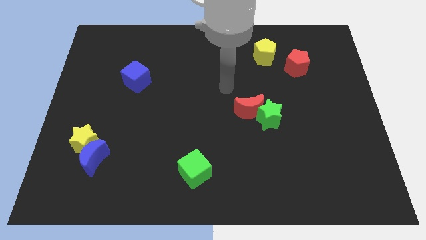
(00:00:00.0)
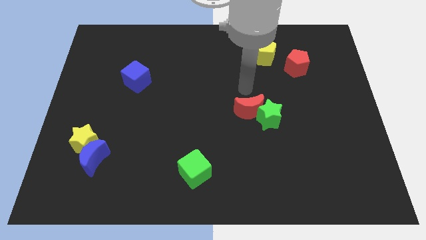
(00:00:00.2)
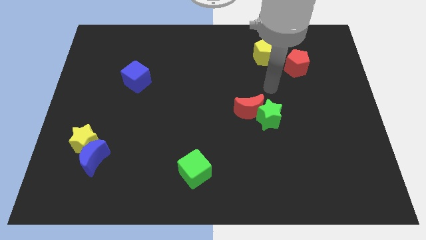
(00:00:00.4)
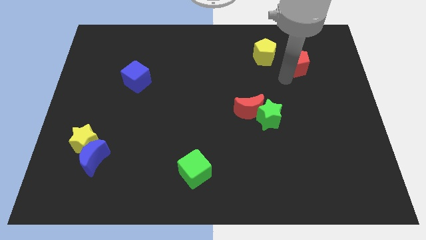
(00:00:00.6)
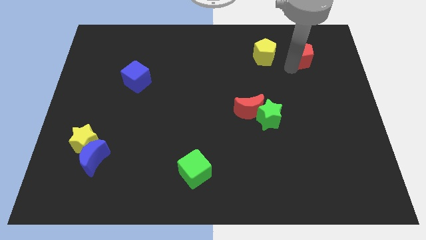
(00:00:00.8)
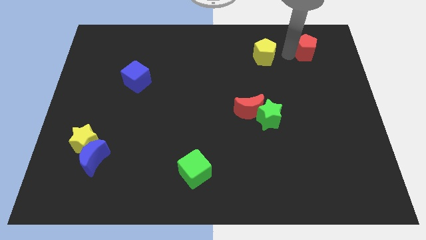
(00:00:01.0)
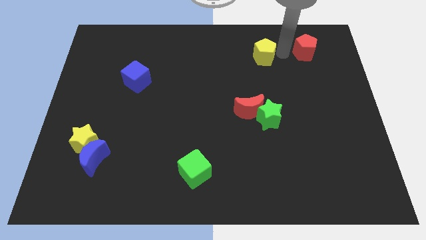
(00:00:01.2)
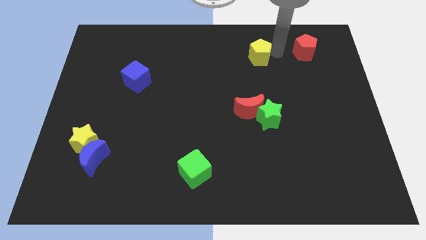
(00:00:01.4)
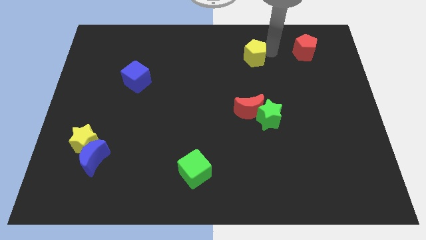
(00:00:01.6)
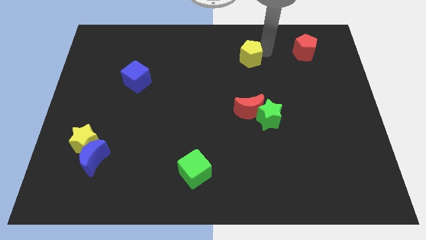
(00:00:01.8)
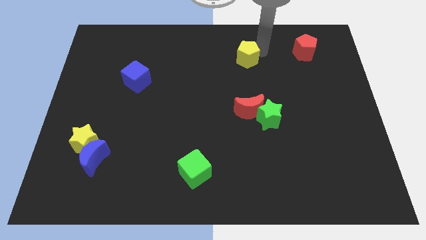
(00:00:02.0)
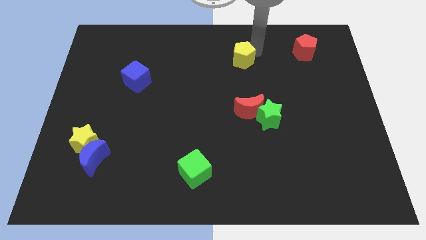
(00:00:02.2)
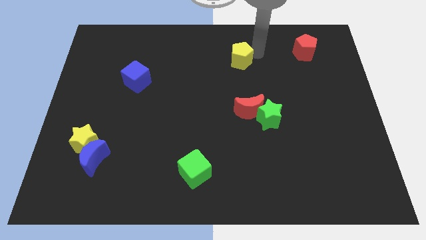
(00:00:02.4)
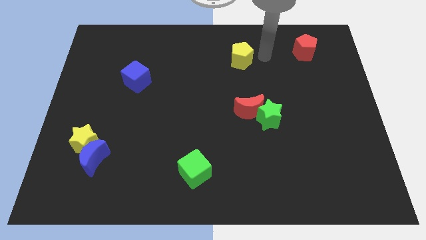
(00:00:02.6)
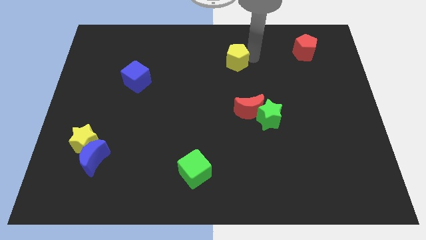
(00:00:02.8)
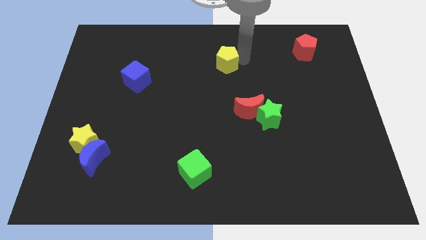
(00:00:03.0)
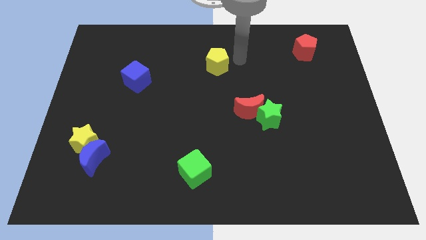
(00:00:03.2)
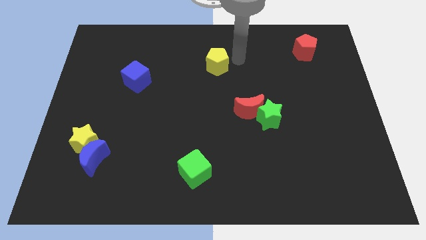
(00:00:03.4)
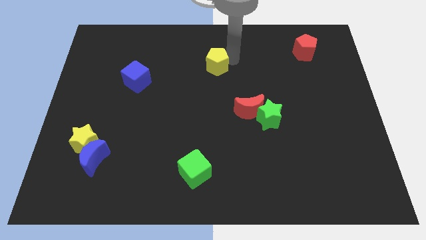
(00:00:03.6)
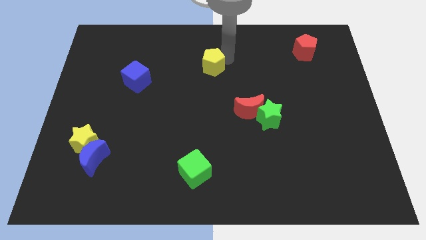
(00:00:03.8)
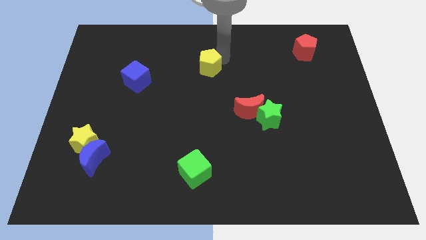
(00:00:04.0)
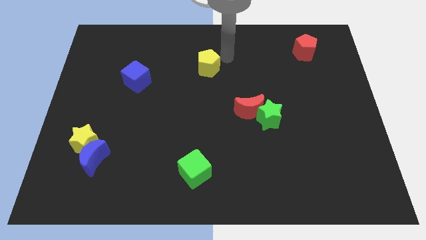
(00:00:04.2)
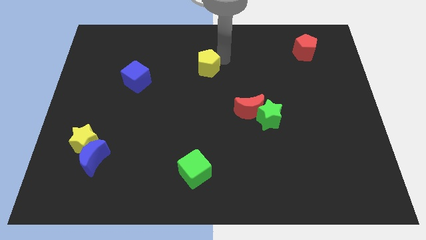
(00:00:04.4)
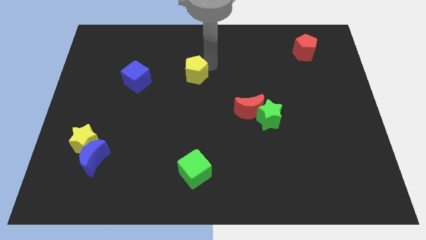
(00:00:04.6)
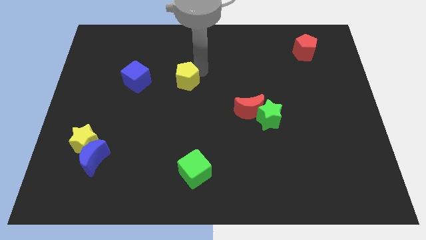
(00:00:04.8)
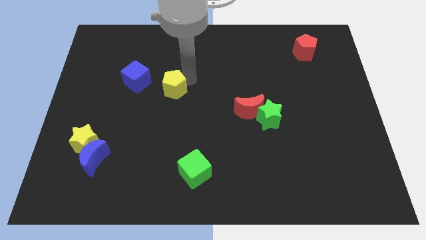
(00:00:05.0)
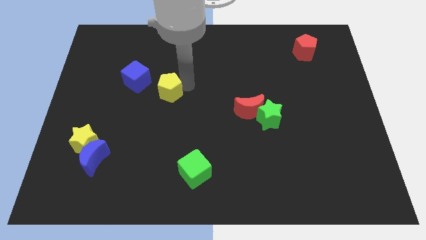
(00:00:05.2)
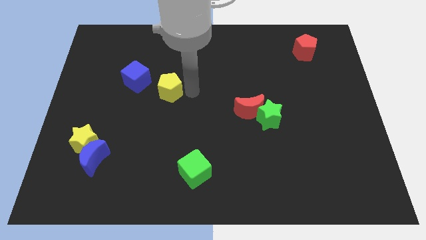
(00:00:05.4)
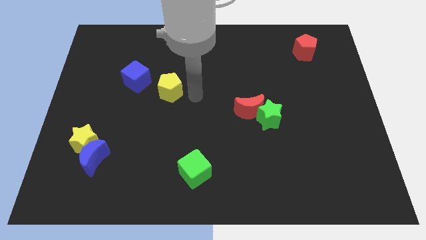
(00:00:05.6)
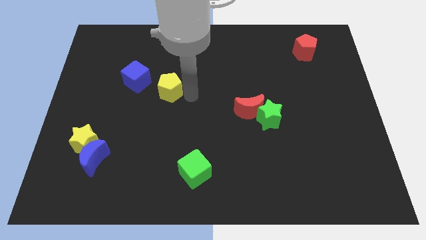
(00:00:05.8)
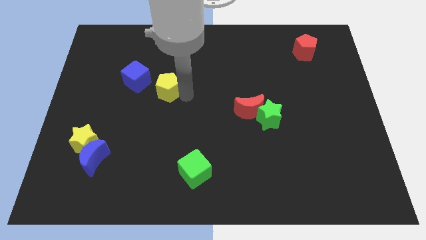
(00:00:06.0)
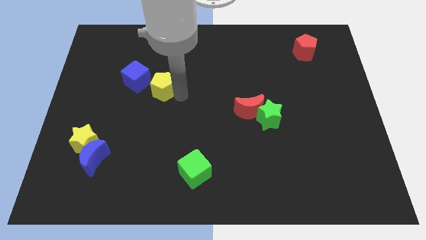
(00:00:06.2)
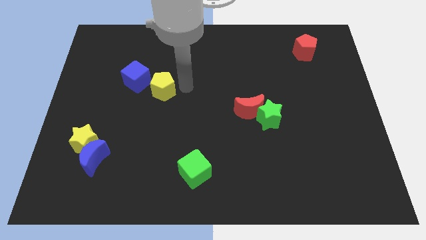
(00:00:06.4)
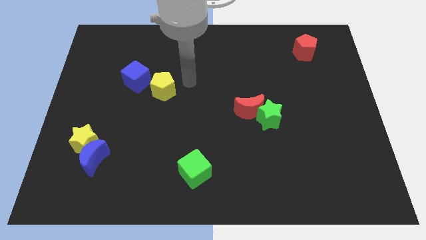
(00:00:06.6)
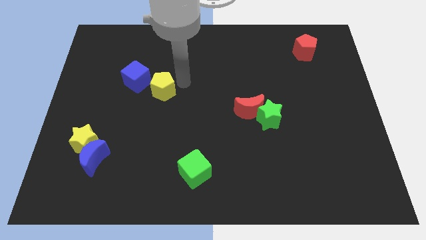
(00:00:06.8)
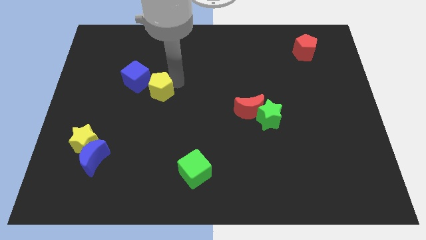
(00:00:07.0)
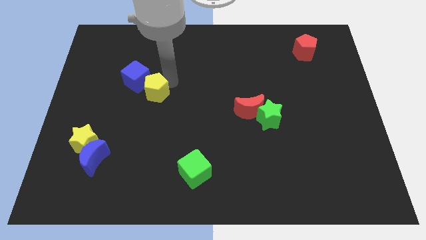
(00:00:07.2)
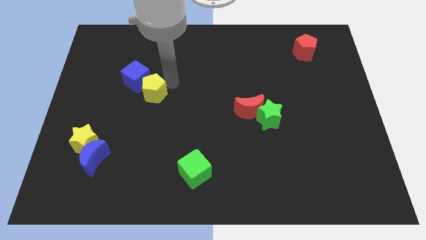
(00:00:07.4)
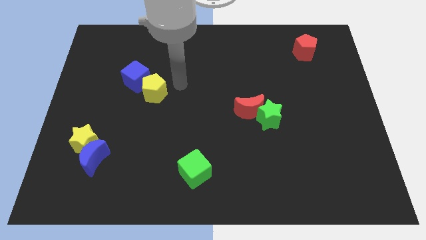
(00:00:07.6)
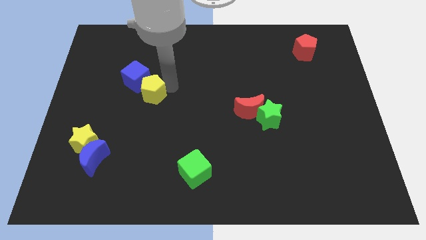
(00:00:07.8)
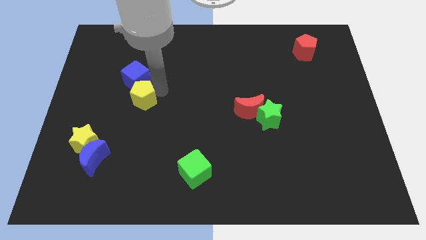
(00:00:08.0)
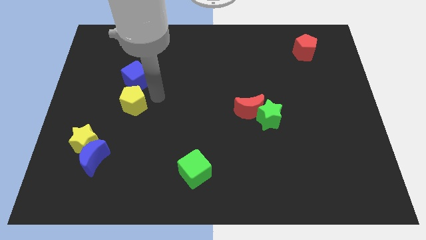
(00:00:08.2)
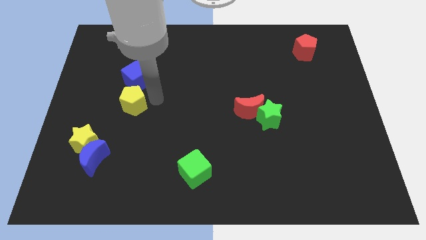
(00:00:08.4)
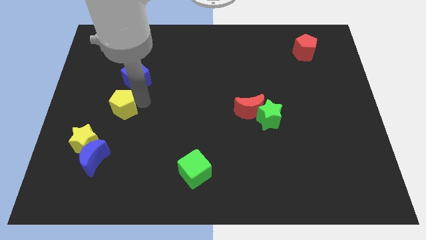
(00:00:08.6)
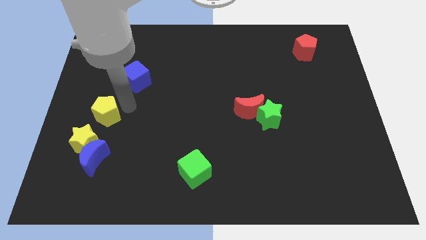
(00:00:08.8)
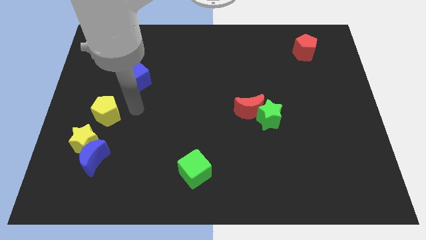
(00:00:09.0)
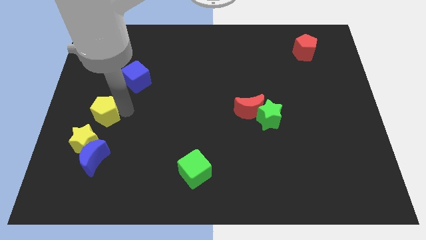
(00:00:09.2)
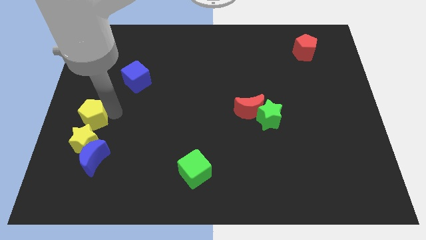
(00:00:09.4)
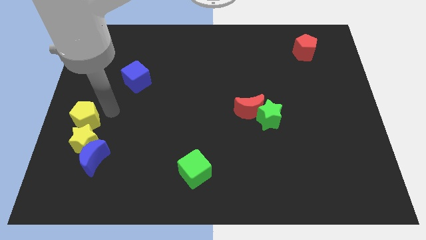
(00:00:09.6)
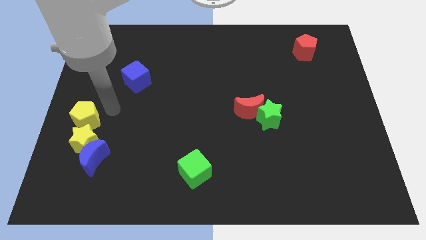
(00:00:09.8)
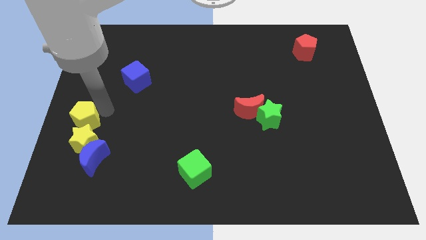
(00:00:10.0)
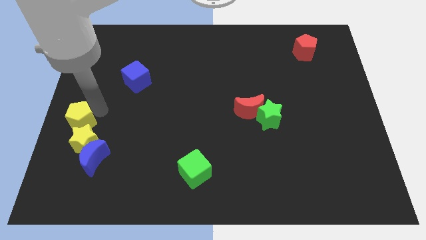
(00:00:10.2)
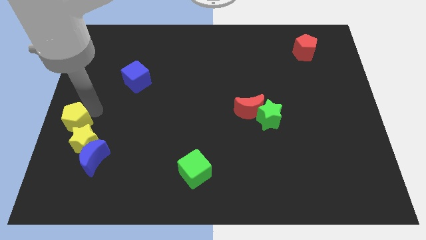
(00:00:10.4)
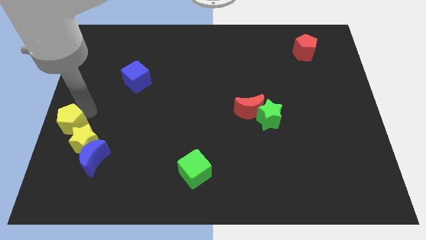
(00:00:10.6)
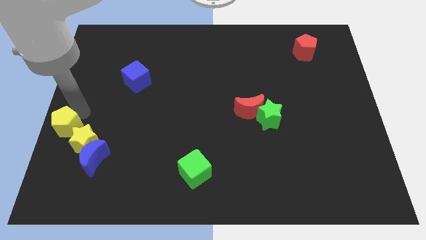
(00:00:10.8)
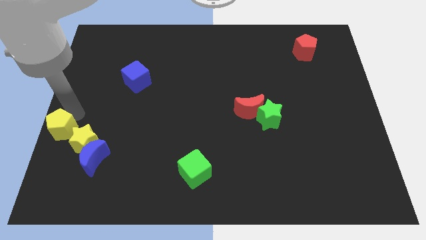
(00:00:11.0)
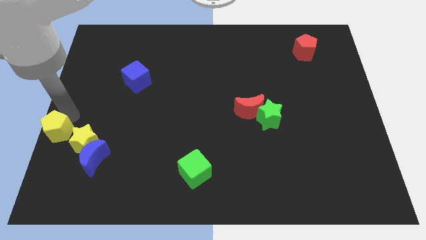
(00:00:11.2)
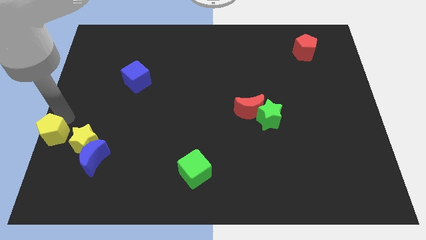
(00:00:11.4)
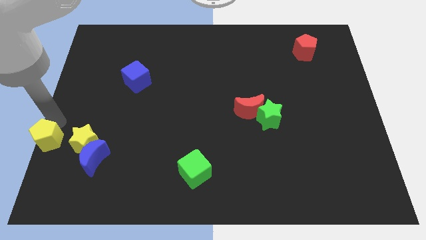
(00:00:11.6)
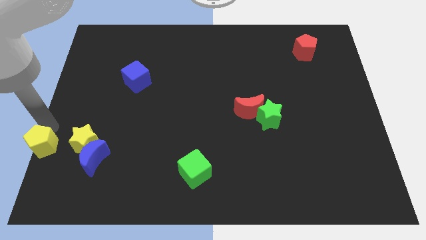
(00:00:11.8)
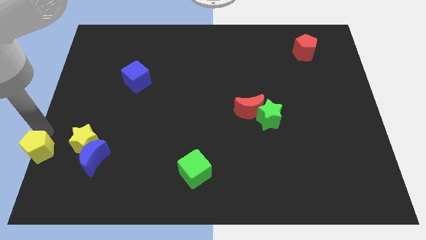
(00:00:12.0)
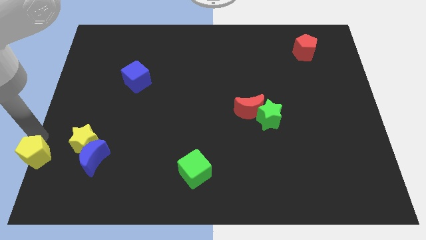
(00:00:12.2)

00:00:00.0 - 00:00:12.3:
push the yellow pentagon to the lower left corner

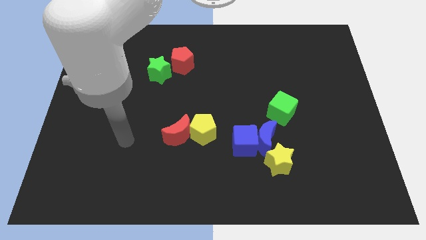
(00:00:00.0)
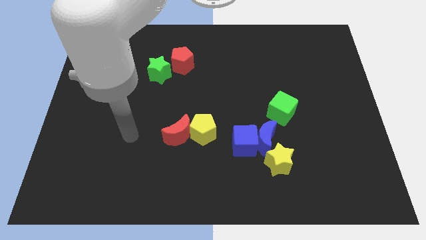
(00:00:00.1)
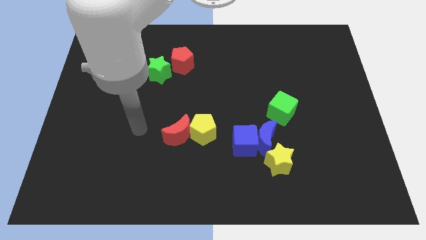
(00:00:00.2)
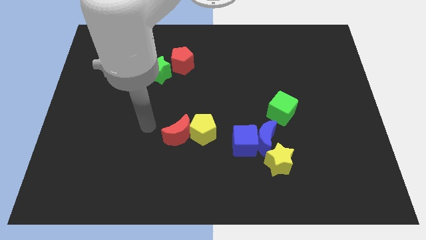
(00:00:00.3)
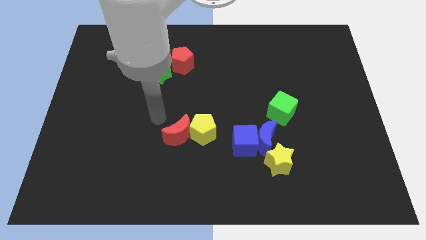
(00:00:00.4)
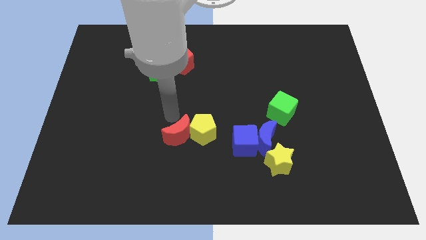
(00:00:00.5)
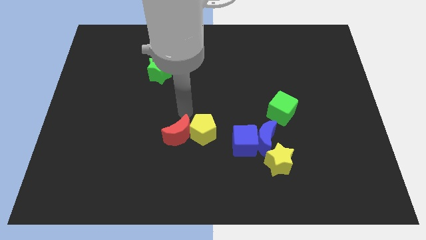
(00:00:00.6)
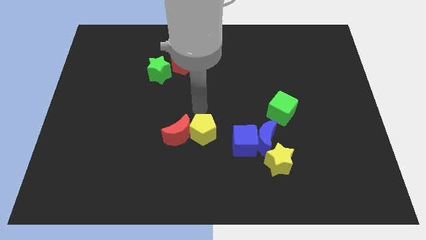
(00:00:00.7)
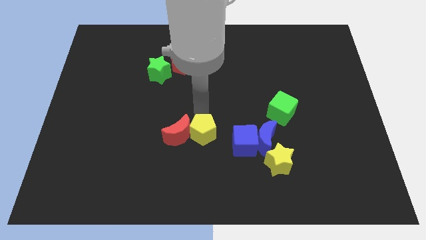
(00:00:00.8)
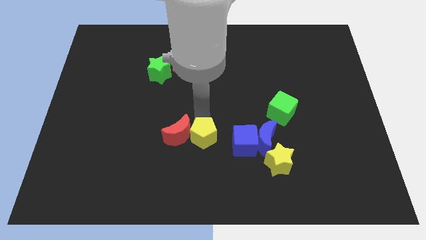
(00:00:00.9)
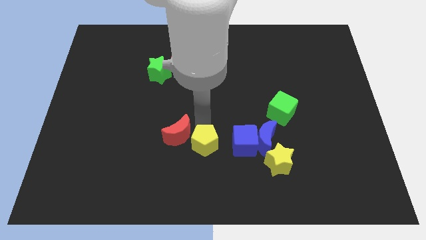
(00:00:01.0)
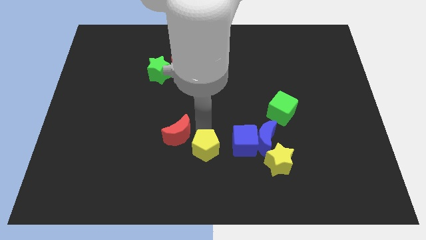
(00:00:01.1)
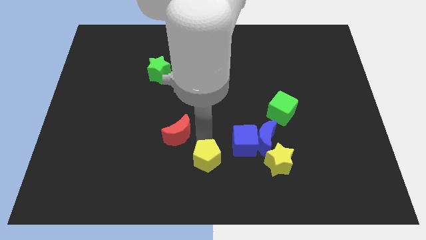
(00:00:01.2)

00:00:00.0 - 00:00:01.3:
slide the yellow pentagon to the bottom

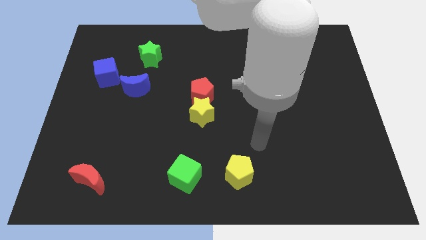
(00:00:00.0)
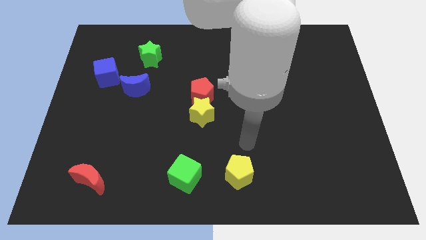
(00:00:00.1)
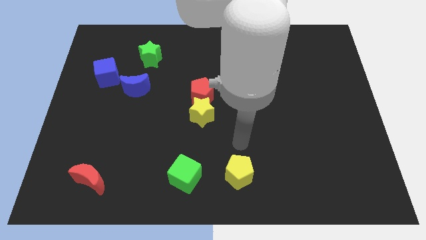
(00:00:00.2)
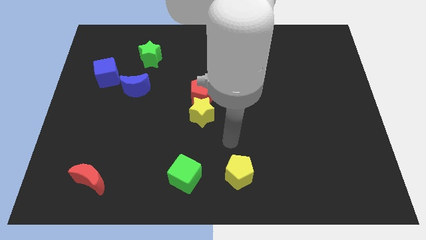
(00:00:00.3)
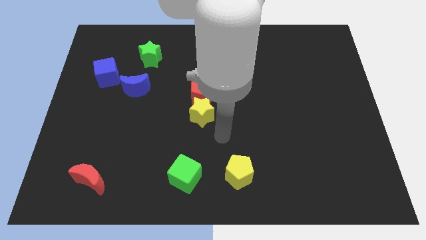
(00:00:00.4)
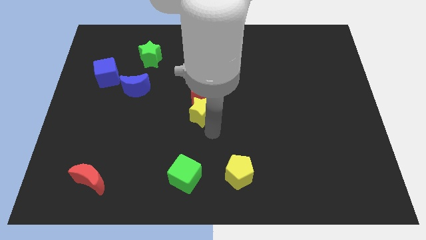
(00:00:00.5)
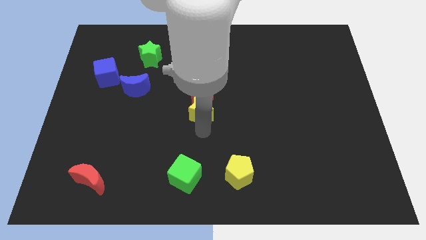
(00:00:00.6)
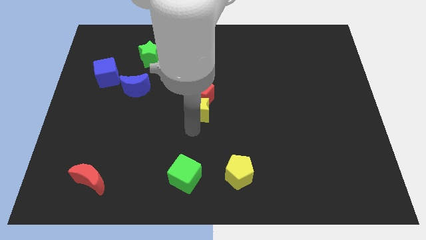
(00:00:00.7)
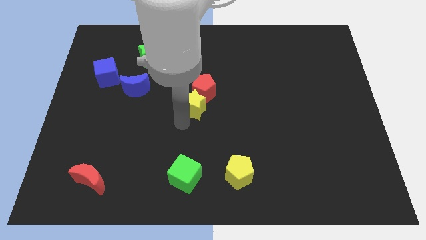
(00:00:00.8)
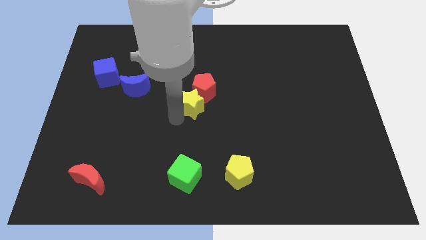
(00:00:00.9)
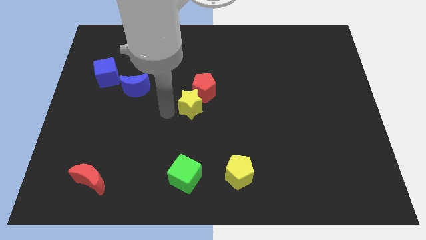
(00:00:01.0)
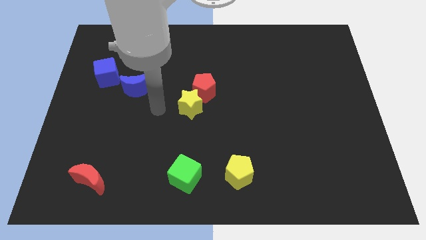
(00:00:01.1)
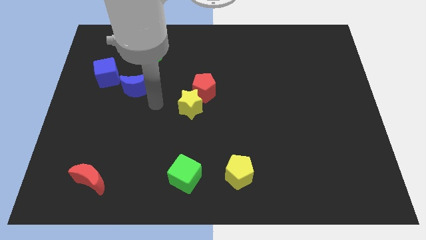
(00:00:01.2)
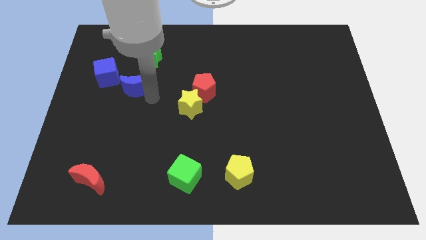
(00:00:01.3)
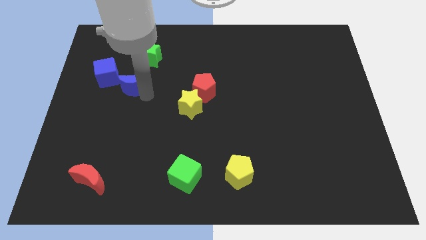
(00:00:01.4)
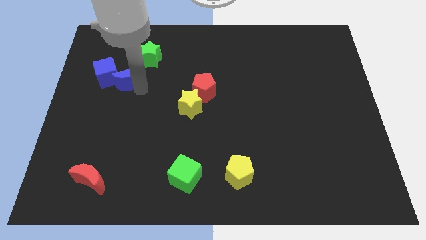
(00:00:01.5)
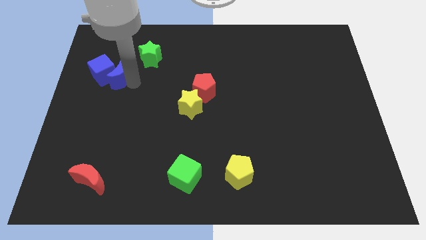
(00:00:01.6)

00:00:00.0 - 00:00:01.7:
slide the blue cube to the center left
